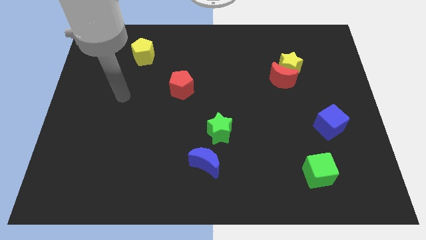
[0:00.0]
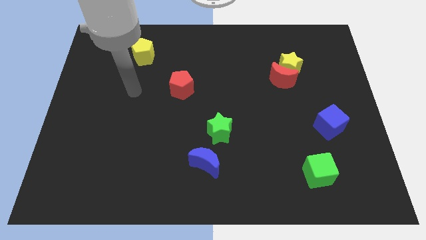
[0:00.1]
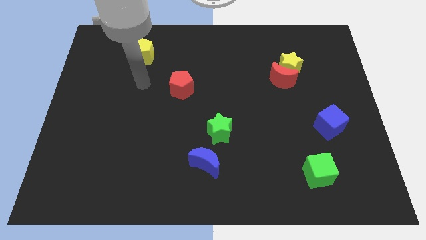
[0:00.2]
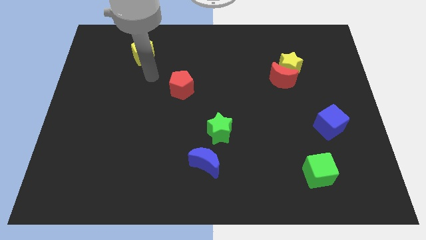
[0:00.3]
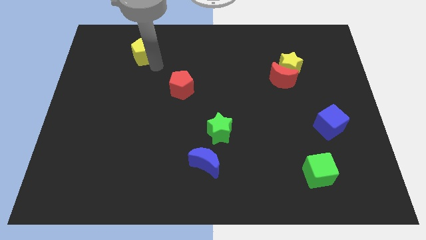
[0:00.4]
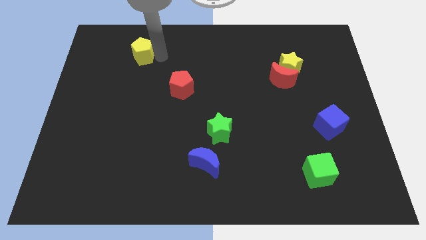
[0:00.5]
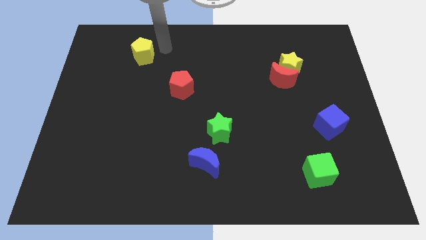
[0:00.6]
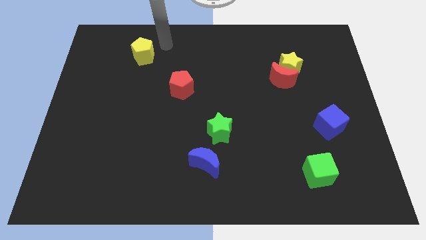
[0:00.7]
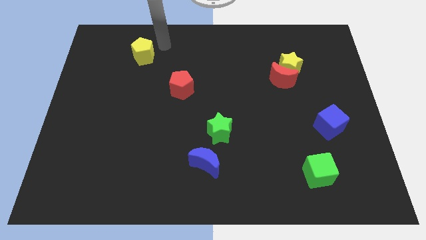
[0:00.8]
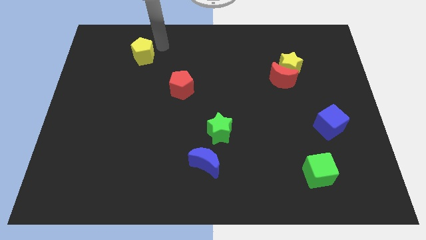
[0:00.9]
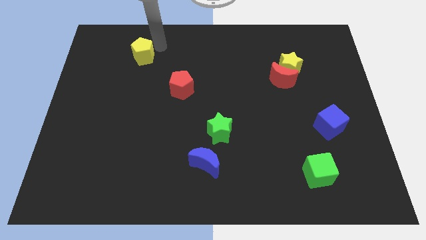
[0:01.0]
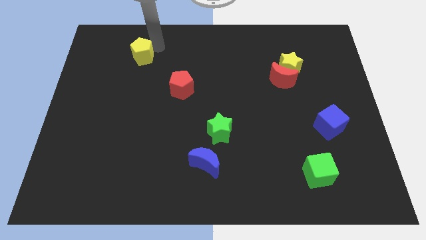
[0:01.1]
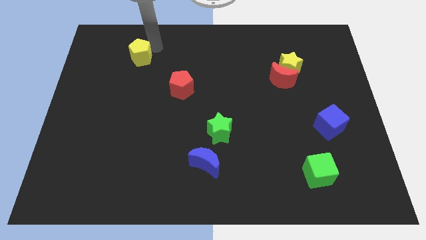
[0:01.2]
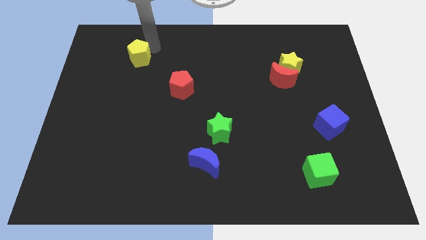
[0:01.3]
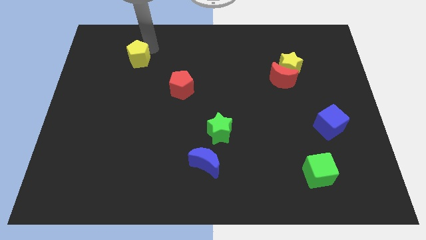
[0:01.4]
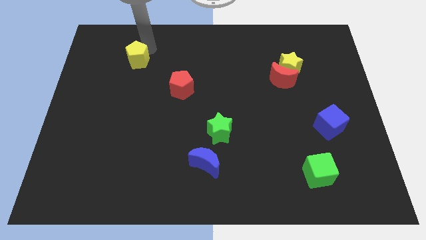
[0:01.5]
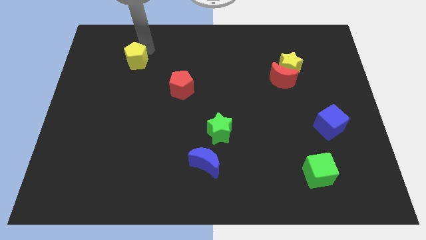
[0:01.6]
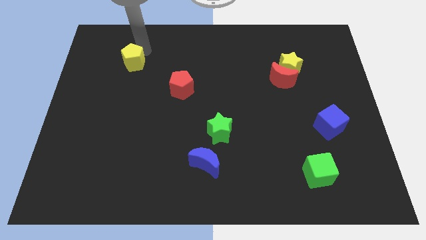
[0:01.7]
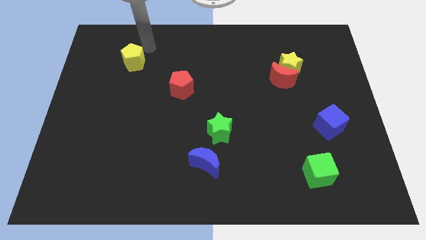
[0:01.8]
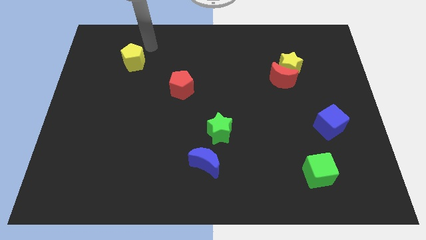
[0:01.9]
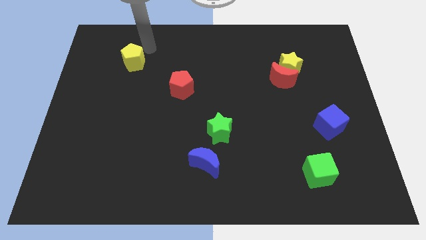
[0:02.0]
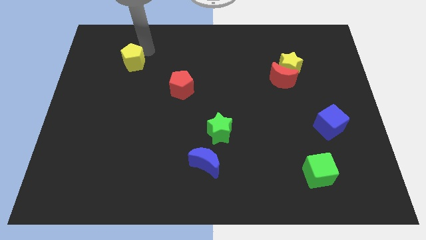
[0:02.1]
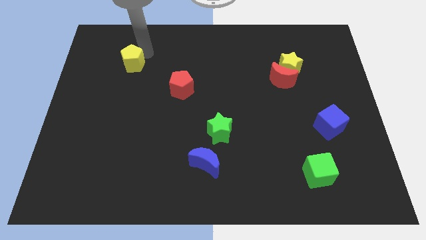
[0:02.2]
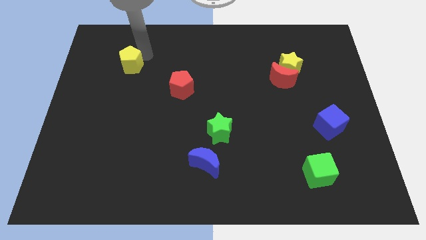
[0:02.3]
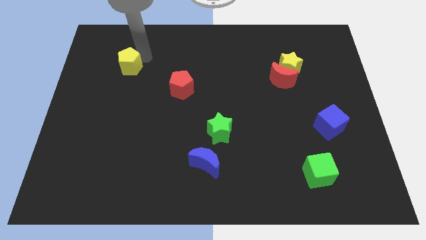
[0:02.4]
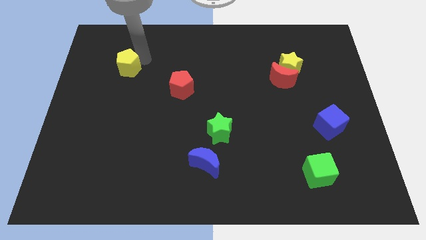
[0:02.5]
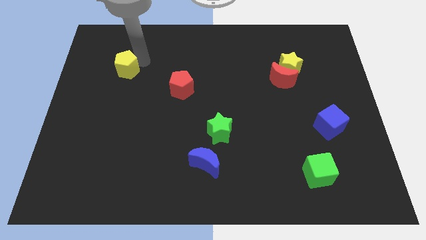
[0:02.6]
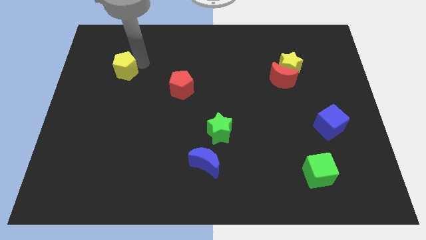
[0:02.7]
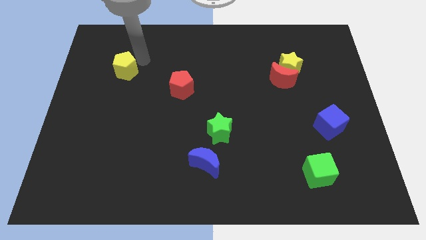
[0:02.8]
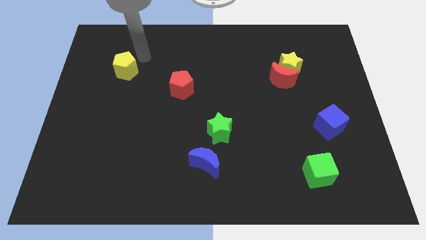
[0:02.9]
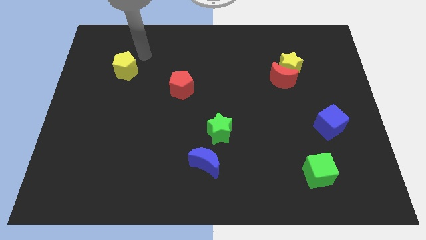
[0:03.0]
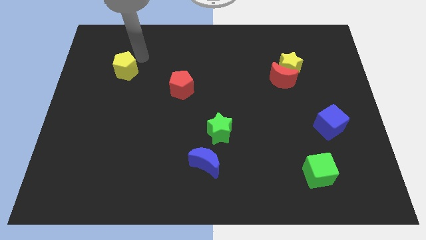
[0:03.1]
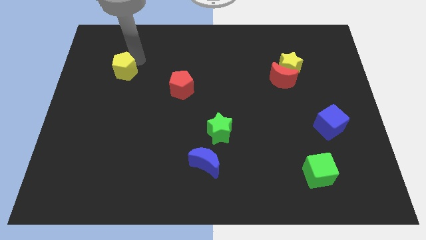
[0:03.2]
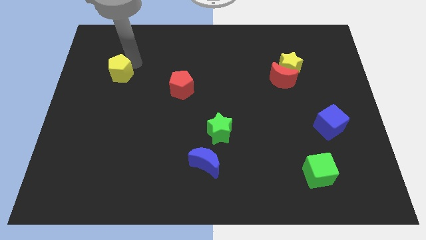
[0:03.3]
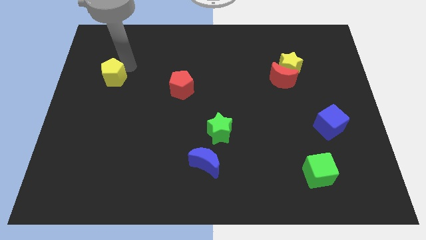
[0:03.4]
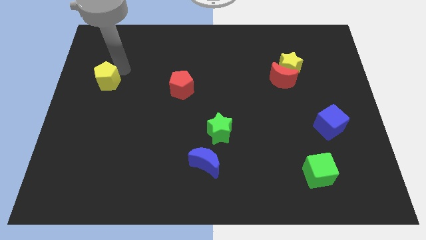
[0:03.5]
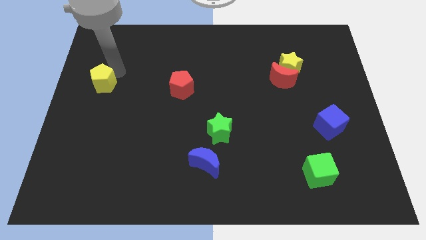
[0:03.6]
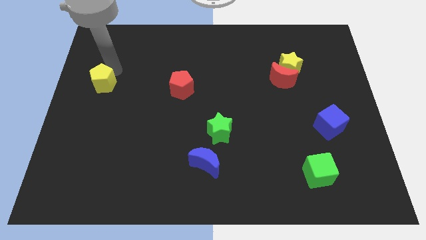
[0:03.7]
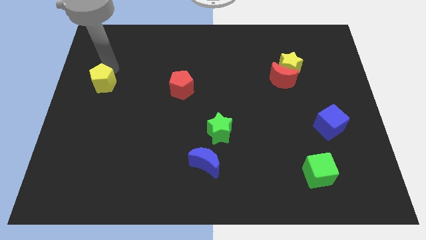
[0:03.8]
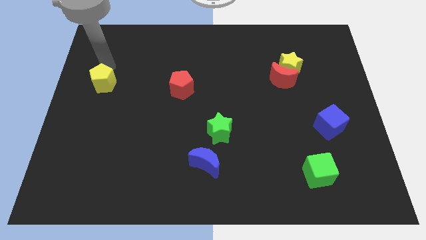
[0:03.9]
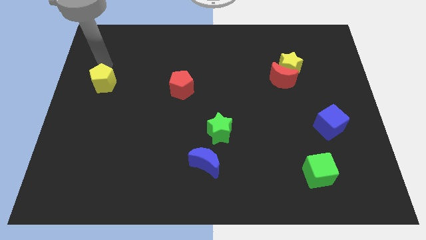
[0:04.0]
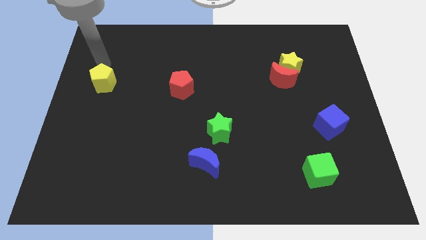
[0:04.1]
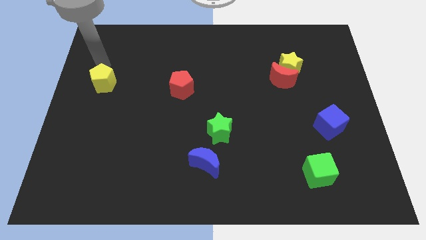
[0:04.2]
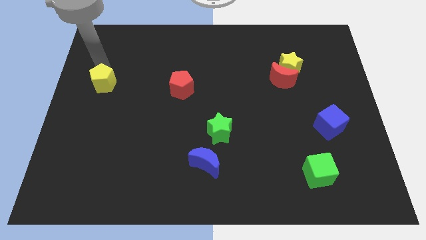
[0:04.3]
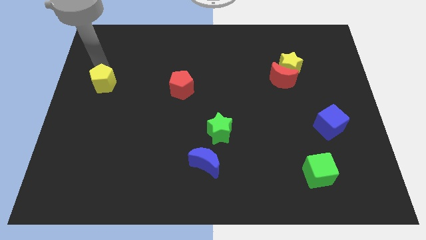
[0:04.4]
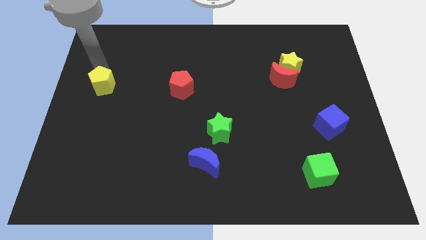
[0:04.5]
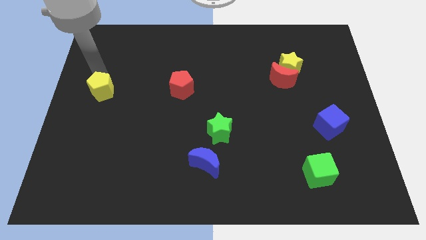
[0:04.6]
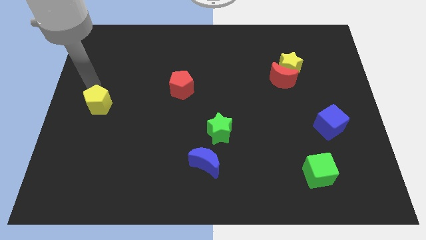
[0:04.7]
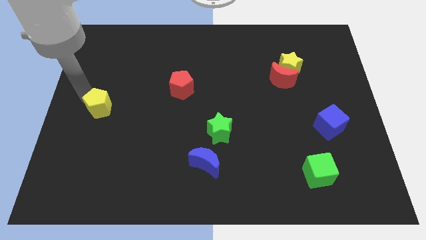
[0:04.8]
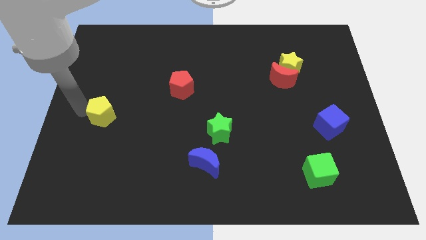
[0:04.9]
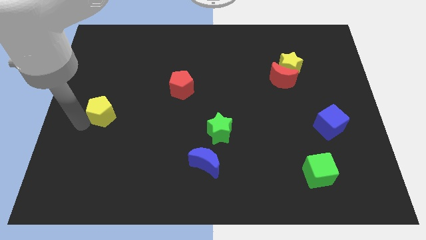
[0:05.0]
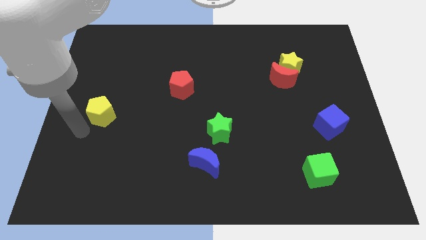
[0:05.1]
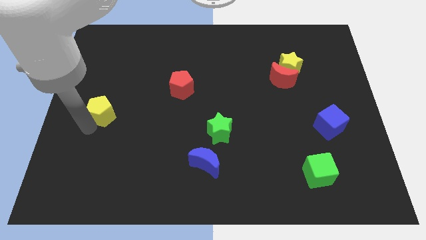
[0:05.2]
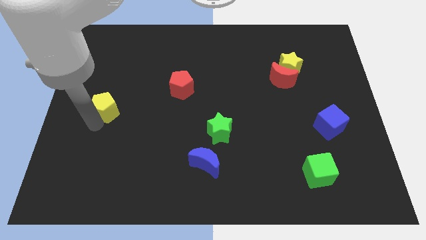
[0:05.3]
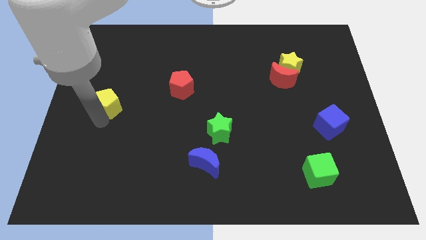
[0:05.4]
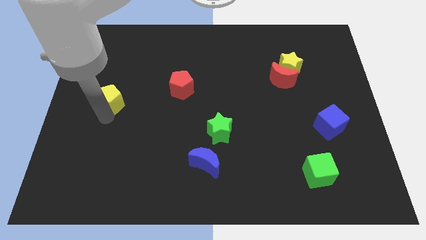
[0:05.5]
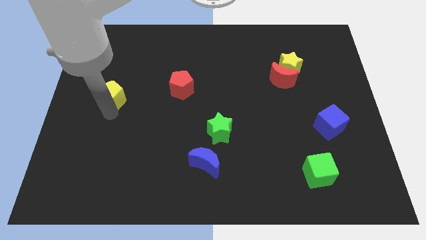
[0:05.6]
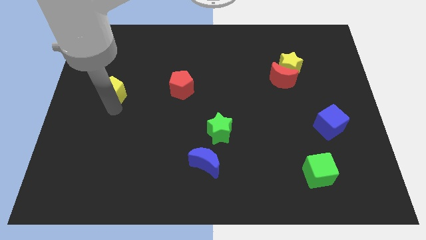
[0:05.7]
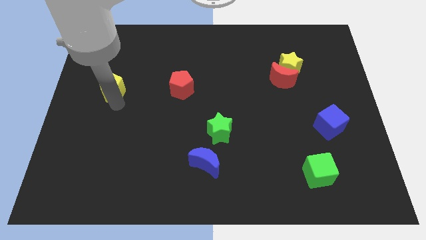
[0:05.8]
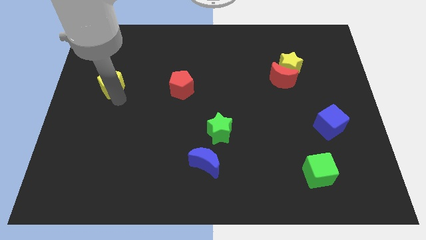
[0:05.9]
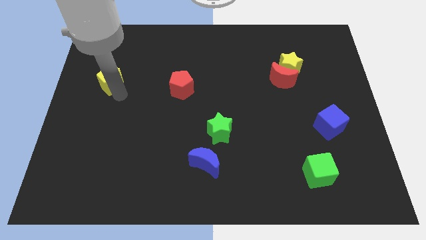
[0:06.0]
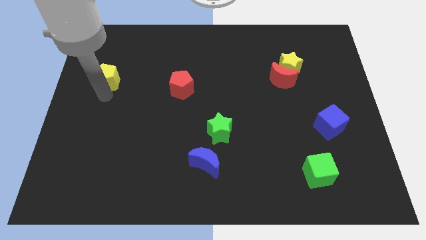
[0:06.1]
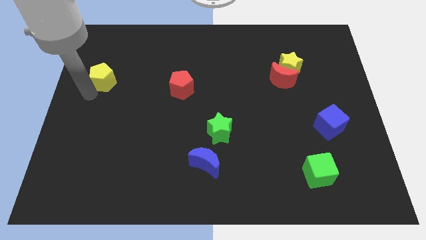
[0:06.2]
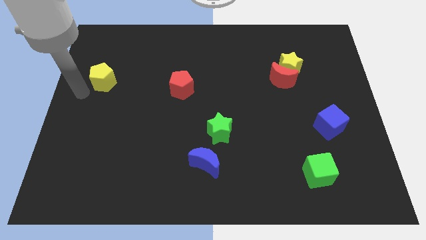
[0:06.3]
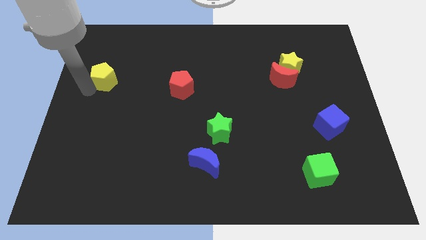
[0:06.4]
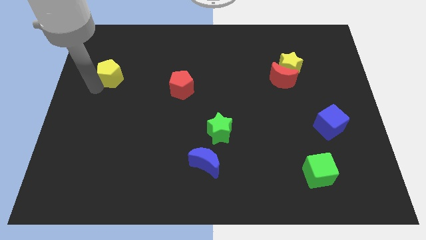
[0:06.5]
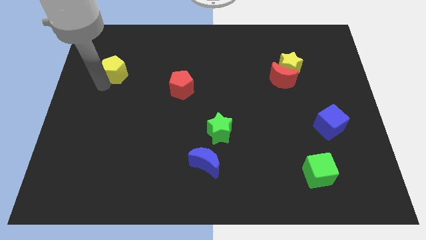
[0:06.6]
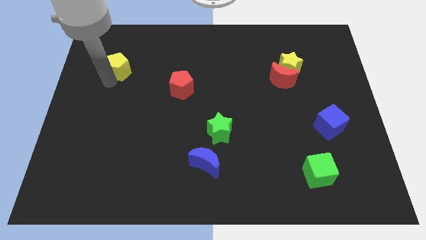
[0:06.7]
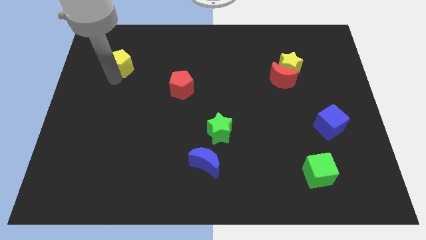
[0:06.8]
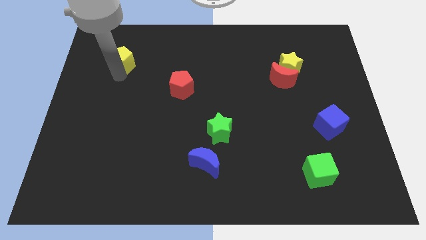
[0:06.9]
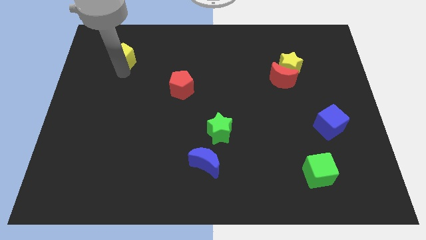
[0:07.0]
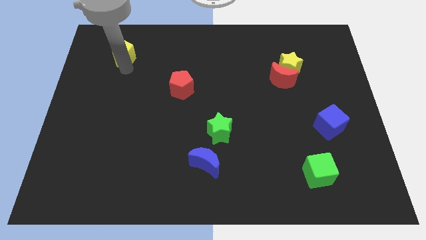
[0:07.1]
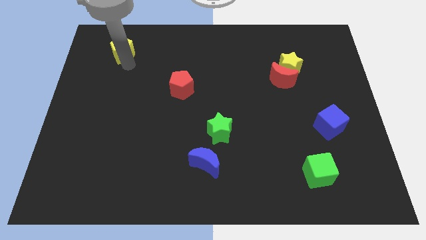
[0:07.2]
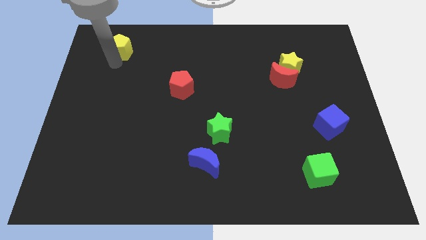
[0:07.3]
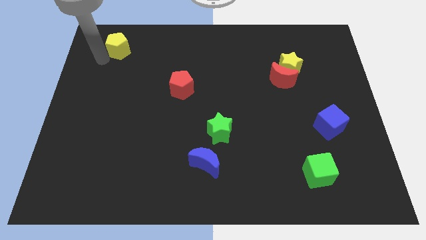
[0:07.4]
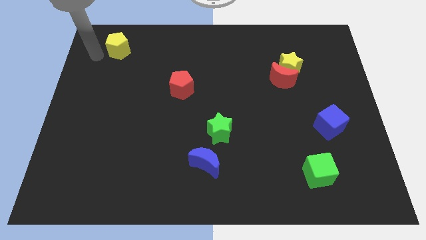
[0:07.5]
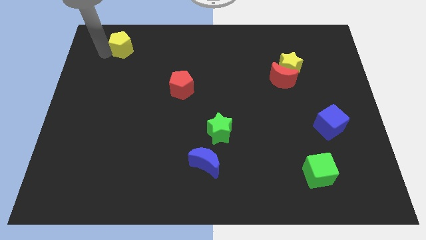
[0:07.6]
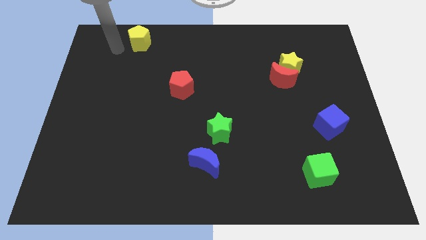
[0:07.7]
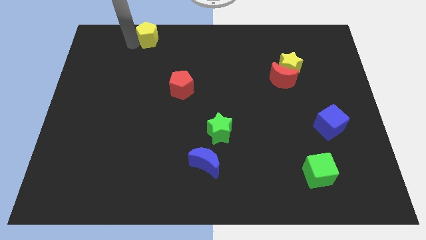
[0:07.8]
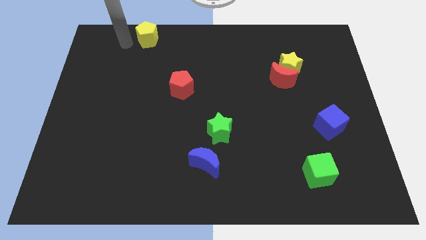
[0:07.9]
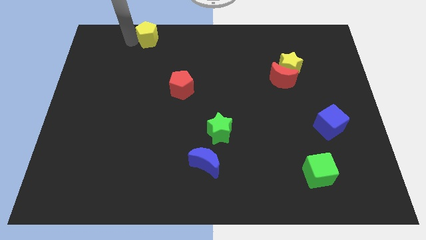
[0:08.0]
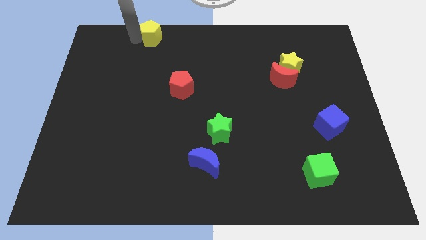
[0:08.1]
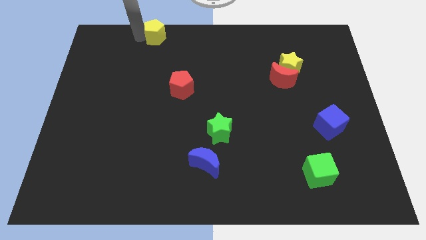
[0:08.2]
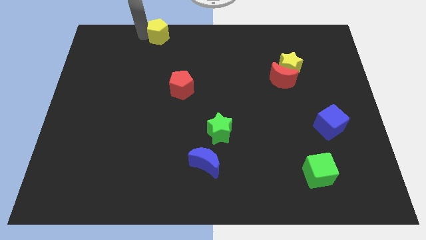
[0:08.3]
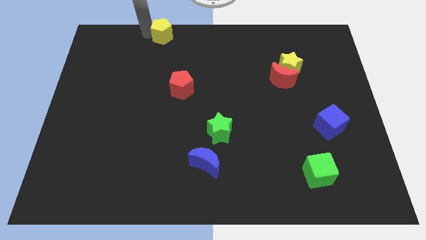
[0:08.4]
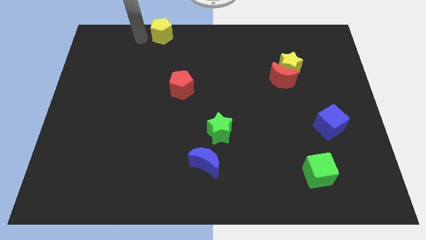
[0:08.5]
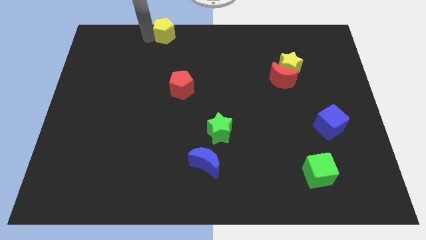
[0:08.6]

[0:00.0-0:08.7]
move the yellow pentagon to the top side
